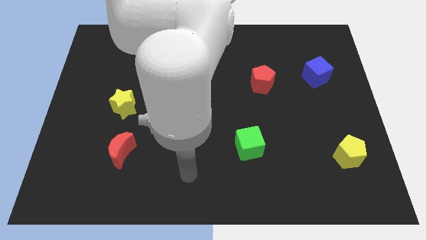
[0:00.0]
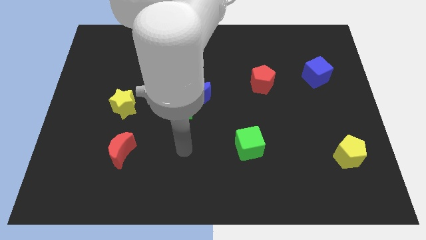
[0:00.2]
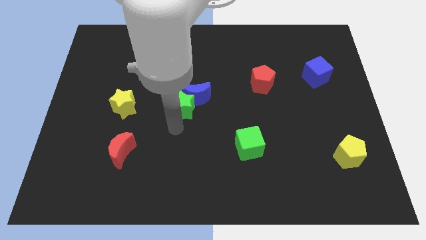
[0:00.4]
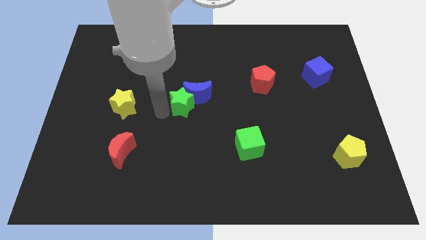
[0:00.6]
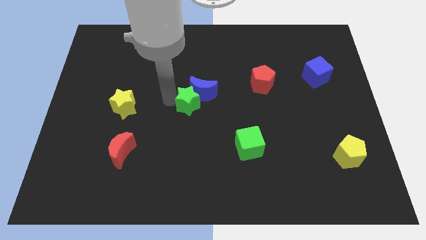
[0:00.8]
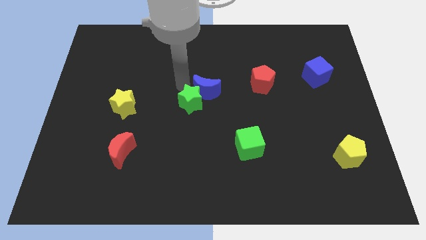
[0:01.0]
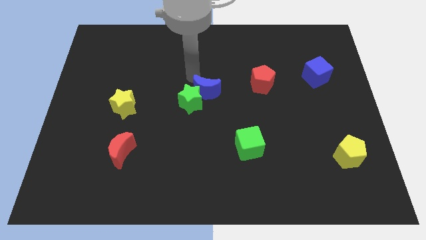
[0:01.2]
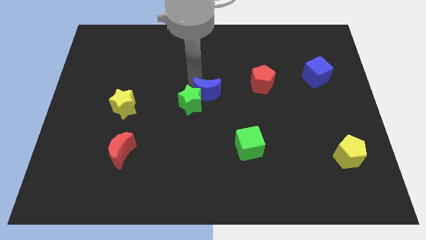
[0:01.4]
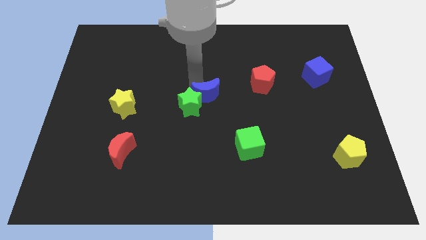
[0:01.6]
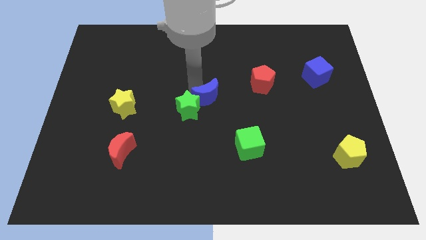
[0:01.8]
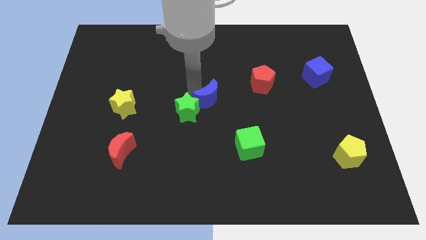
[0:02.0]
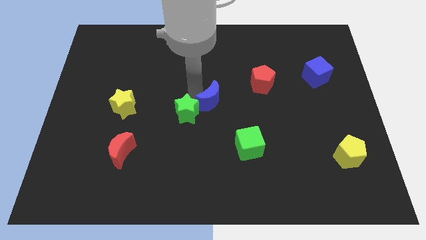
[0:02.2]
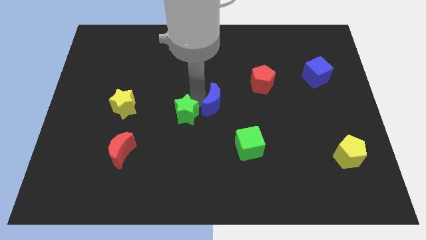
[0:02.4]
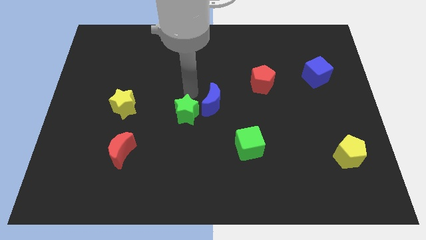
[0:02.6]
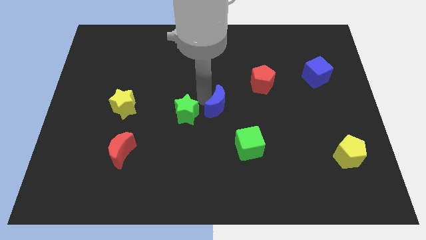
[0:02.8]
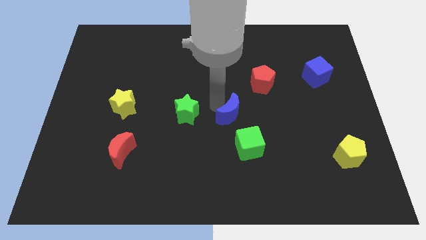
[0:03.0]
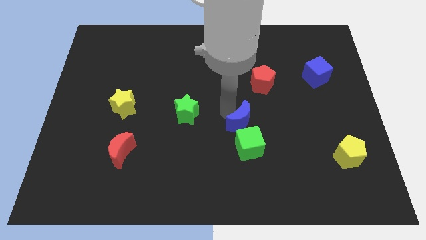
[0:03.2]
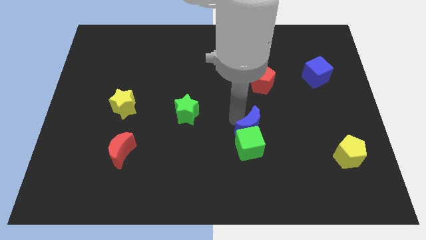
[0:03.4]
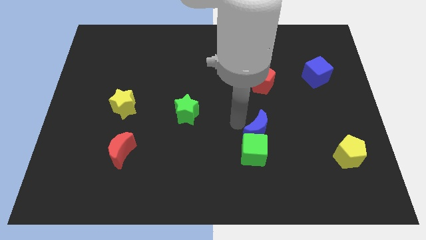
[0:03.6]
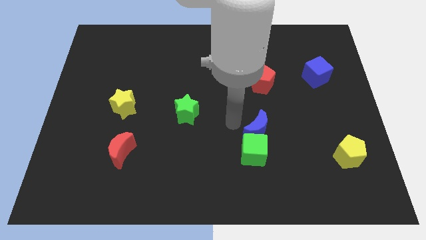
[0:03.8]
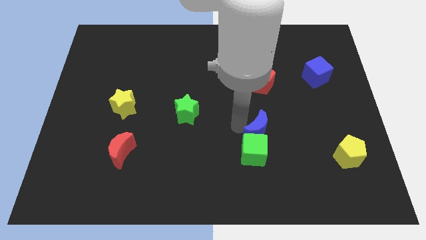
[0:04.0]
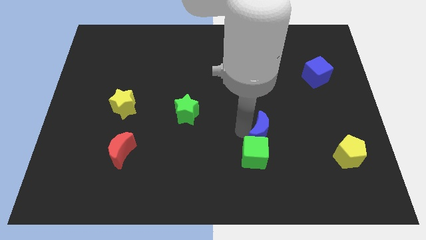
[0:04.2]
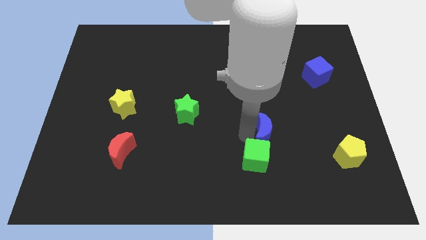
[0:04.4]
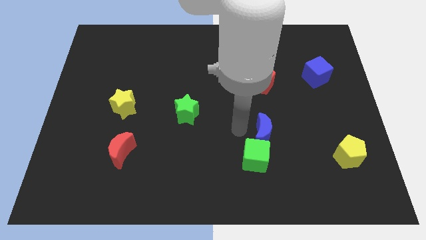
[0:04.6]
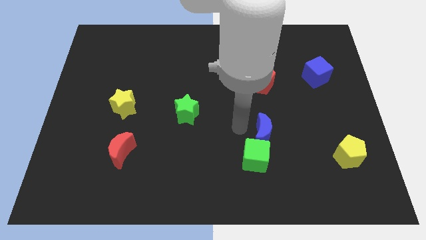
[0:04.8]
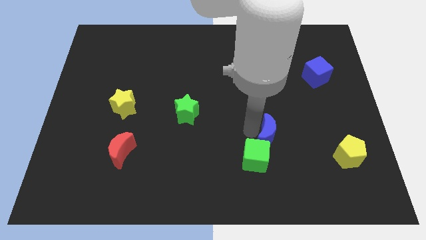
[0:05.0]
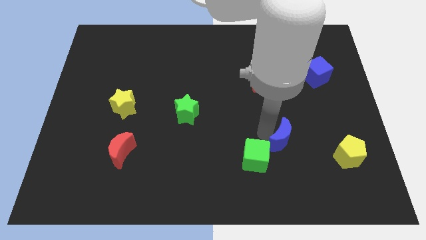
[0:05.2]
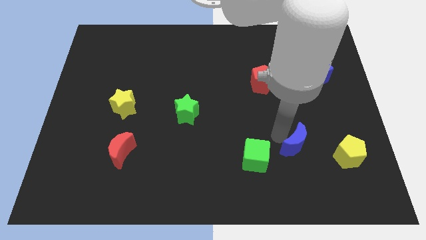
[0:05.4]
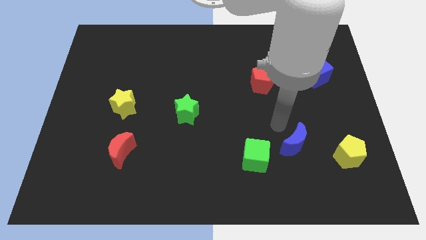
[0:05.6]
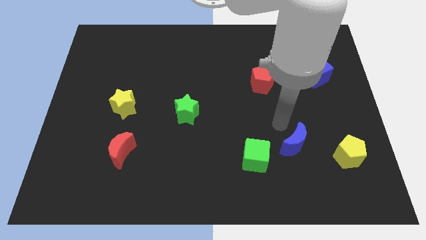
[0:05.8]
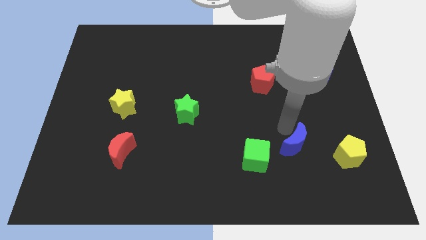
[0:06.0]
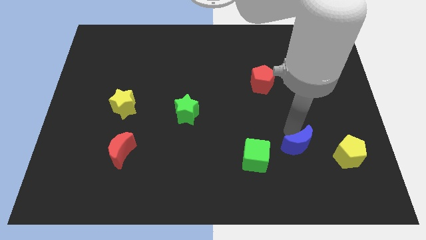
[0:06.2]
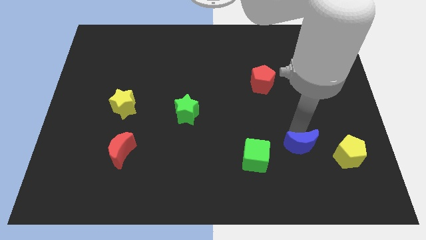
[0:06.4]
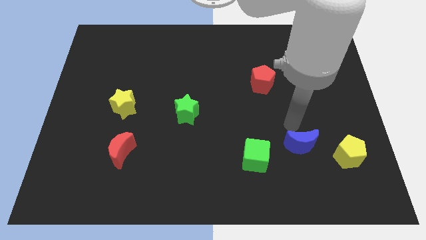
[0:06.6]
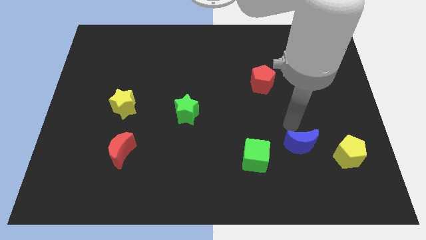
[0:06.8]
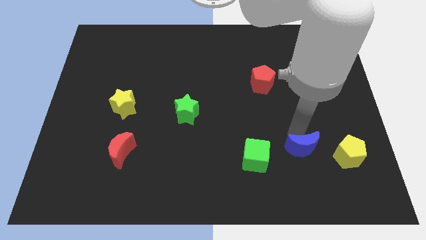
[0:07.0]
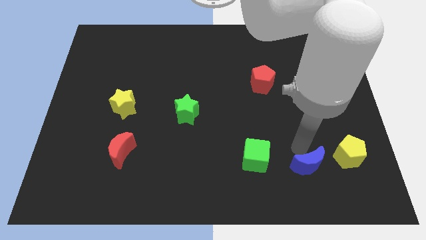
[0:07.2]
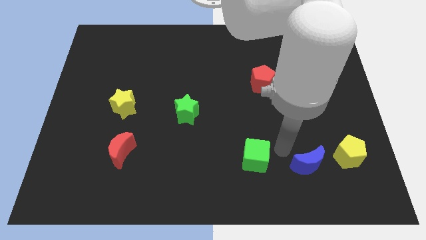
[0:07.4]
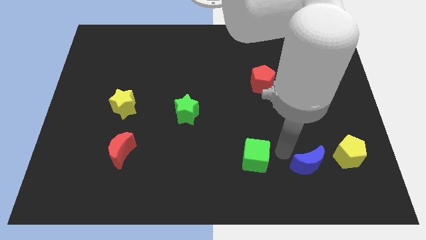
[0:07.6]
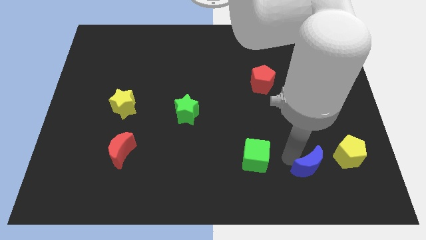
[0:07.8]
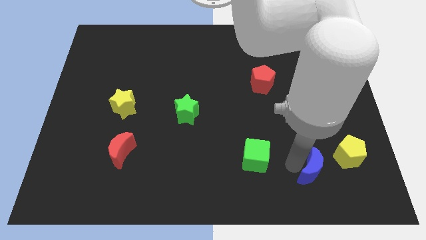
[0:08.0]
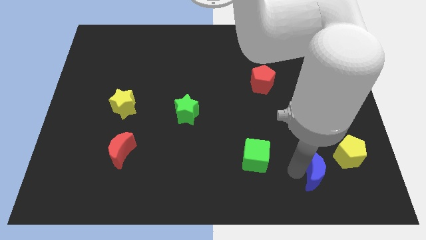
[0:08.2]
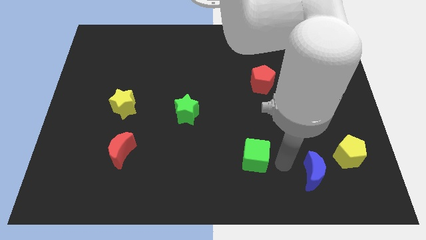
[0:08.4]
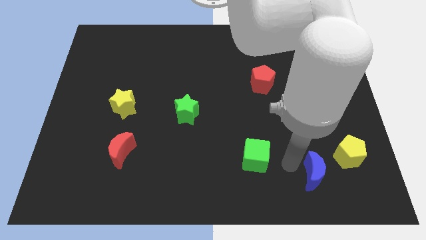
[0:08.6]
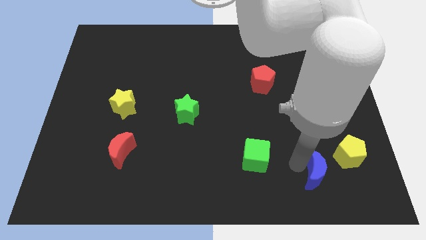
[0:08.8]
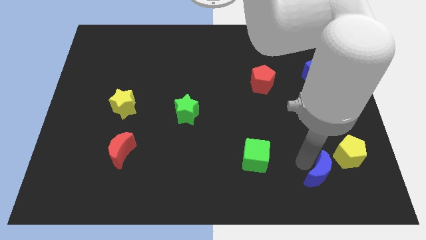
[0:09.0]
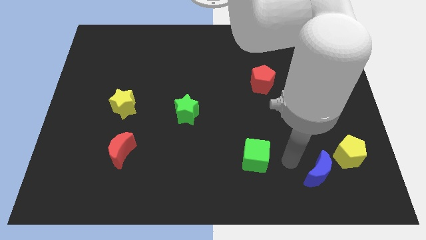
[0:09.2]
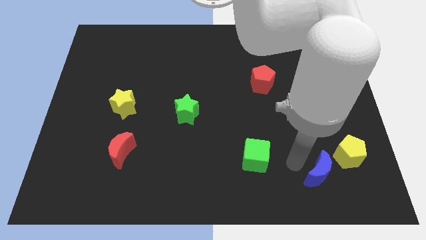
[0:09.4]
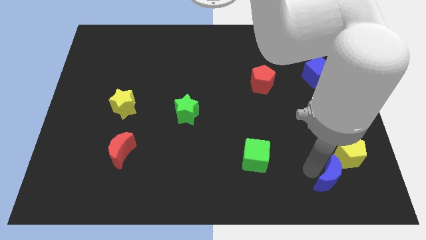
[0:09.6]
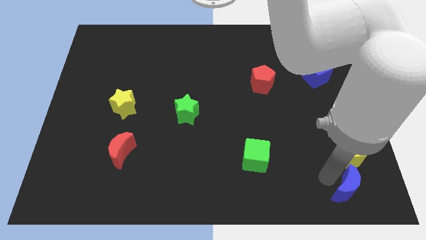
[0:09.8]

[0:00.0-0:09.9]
push the blue moon to the lower right corner

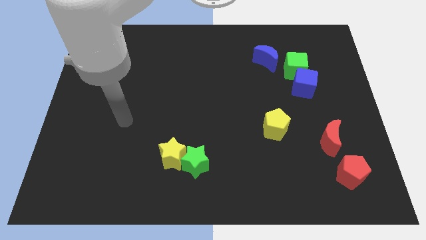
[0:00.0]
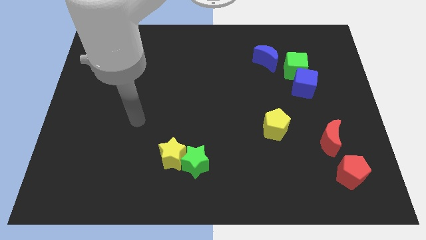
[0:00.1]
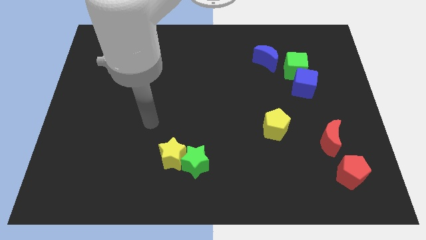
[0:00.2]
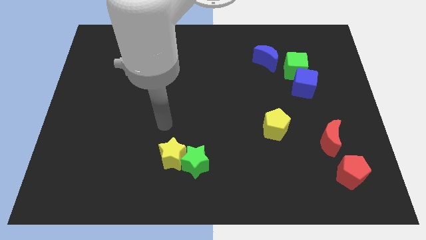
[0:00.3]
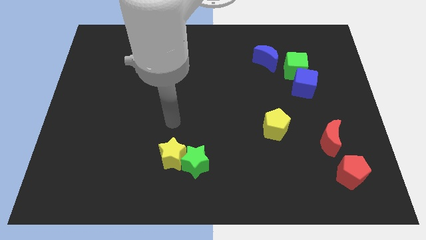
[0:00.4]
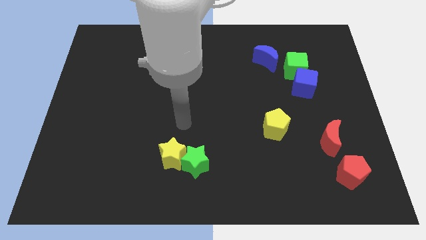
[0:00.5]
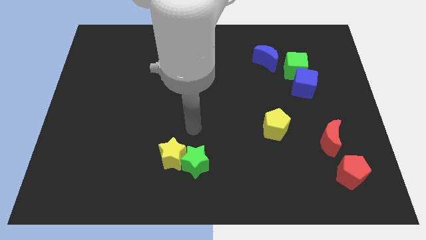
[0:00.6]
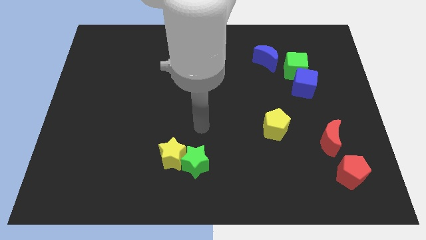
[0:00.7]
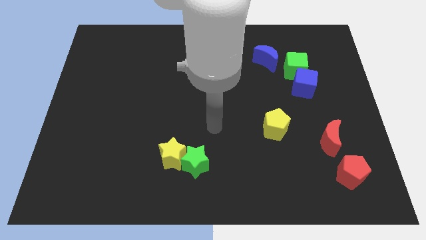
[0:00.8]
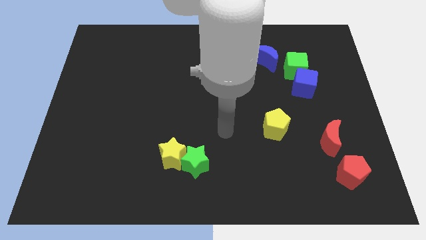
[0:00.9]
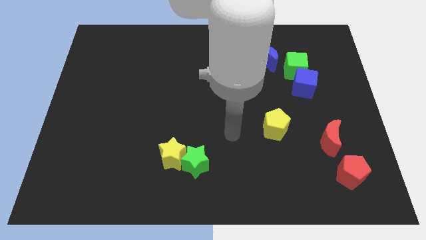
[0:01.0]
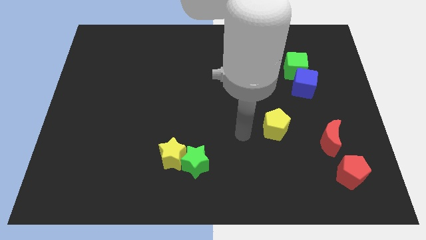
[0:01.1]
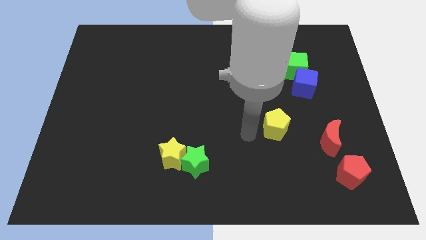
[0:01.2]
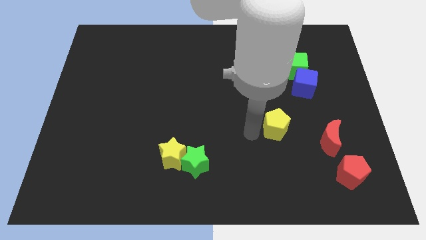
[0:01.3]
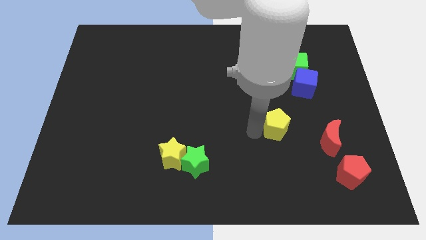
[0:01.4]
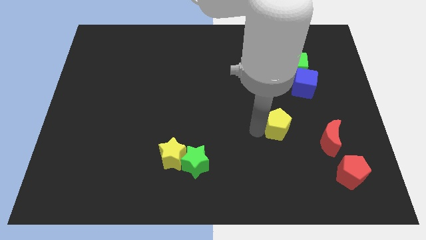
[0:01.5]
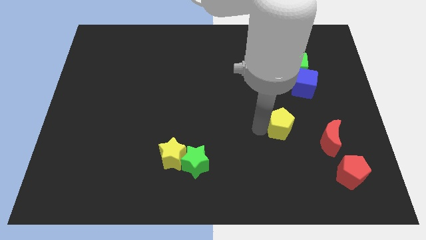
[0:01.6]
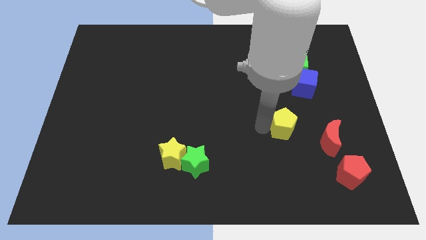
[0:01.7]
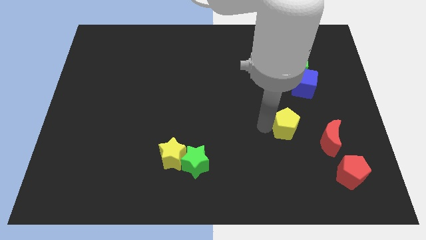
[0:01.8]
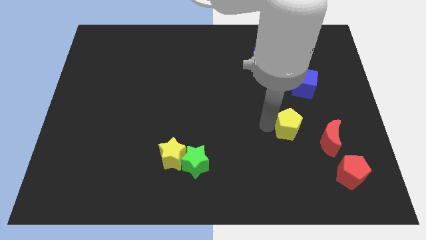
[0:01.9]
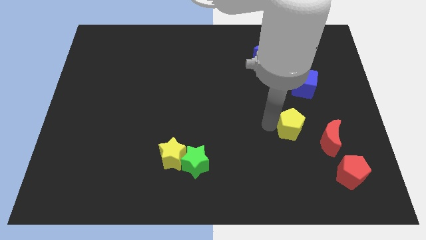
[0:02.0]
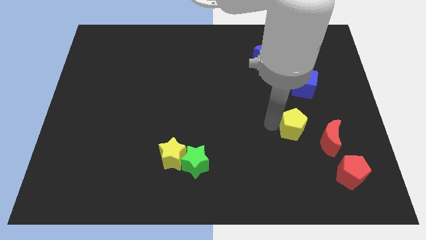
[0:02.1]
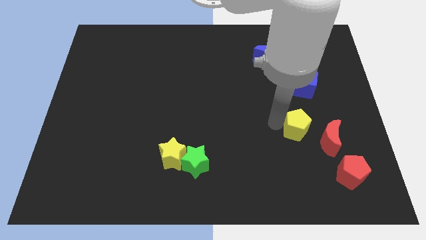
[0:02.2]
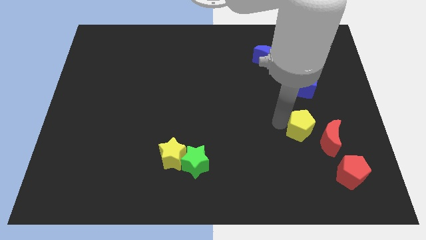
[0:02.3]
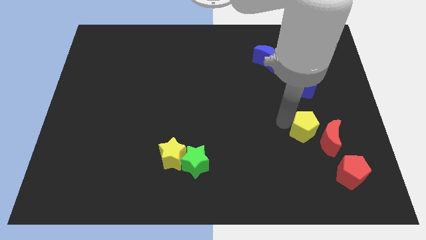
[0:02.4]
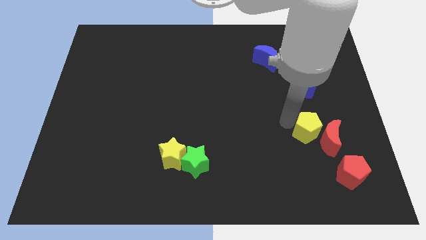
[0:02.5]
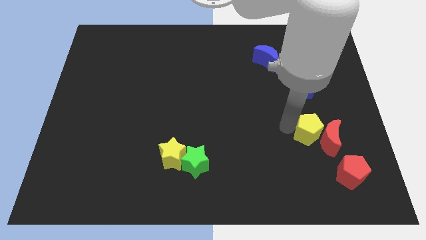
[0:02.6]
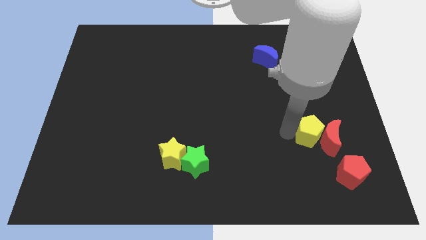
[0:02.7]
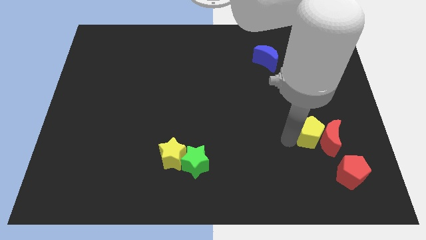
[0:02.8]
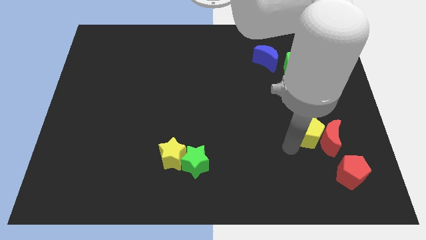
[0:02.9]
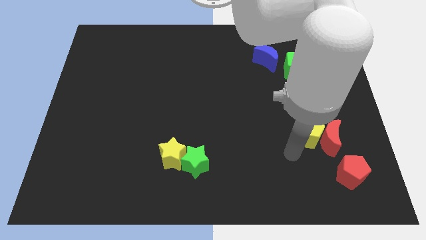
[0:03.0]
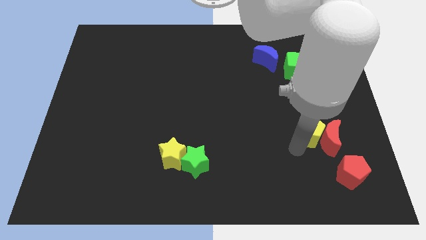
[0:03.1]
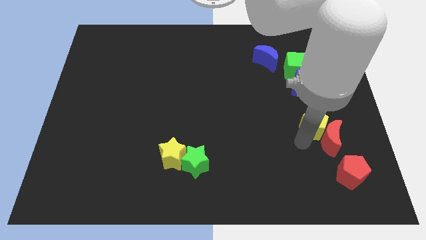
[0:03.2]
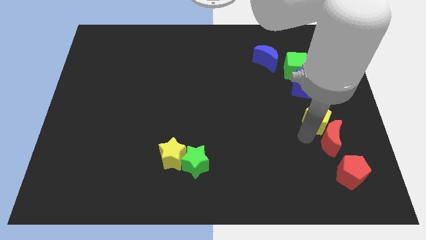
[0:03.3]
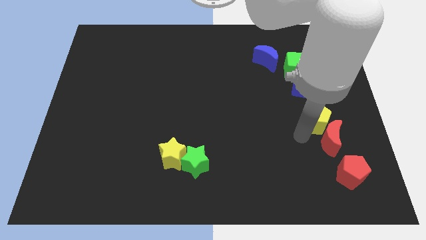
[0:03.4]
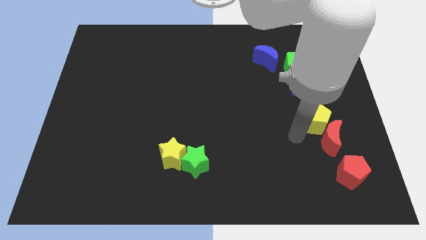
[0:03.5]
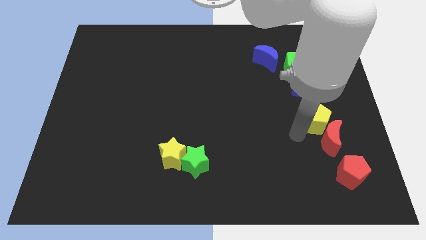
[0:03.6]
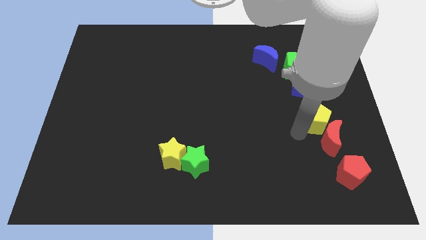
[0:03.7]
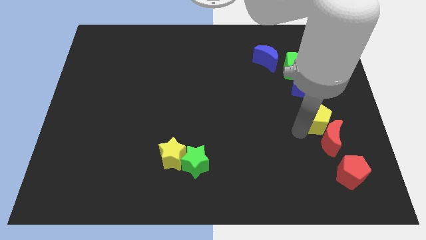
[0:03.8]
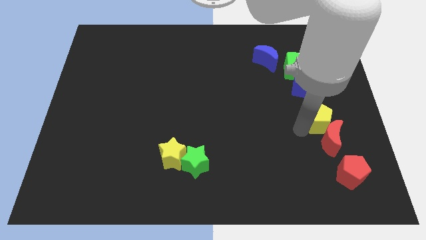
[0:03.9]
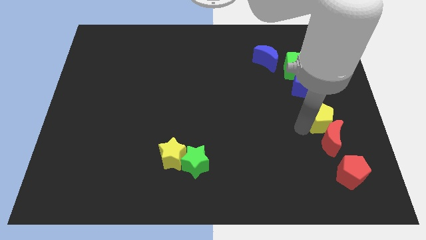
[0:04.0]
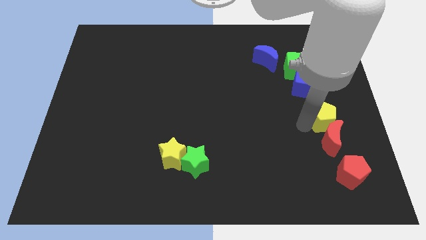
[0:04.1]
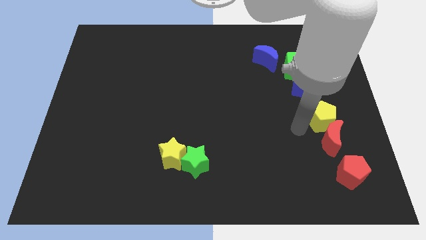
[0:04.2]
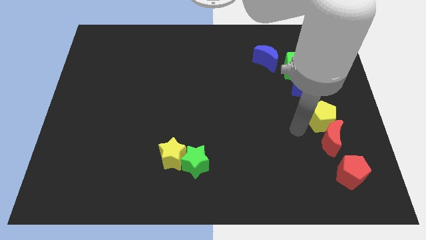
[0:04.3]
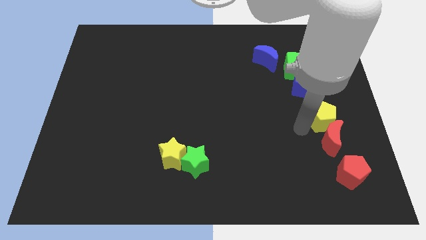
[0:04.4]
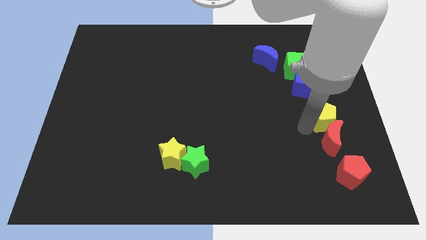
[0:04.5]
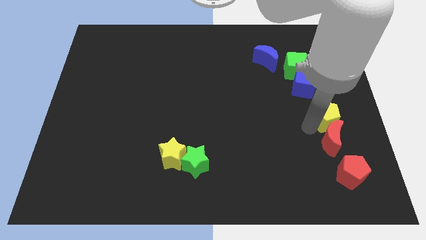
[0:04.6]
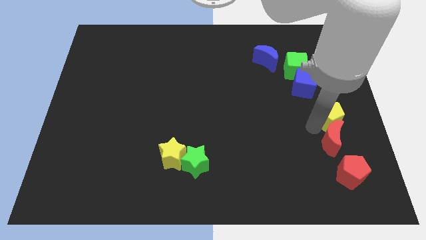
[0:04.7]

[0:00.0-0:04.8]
push the yellow pentagon to the right side of the board
